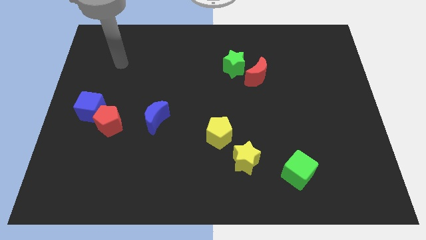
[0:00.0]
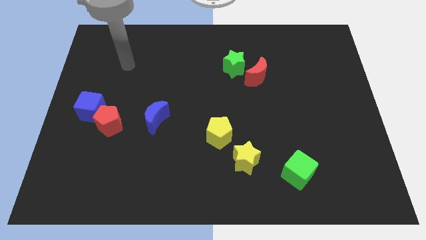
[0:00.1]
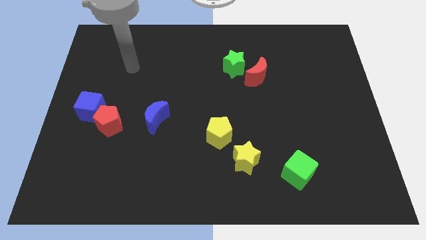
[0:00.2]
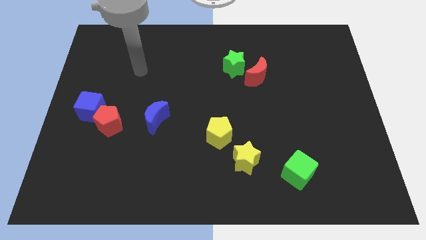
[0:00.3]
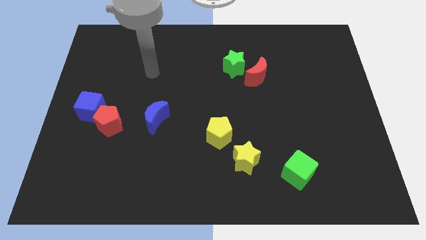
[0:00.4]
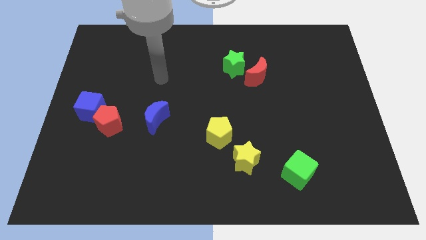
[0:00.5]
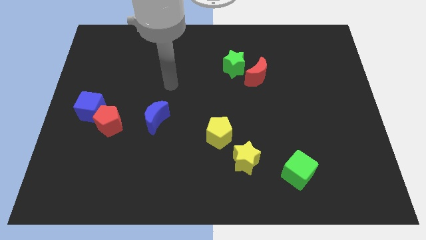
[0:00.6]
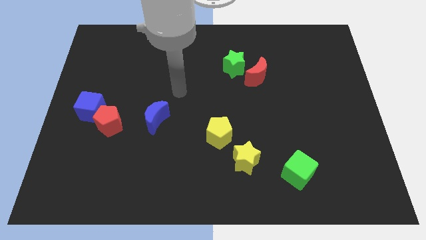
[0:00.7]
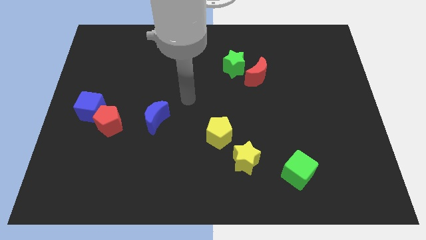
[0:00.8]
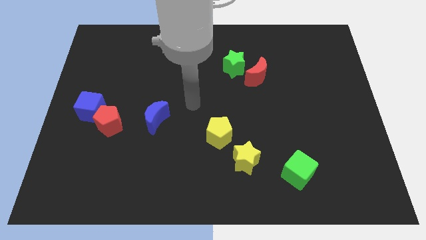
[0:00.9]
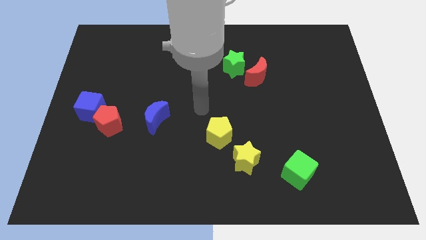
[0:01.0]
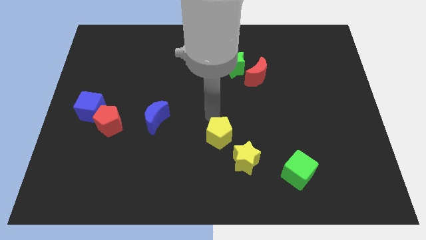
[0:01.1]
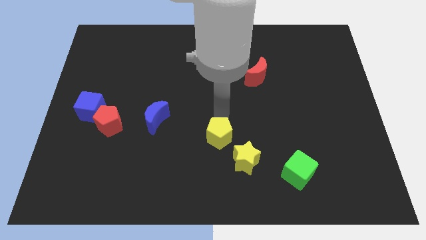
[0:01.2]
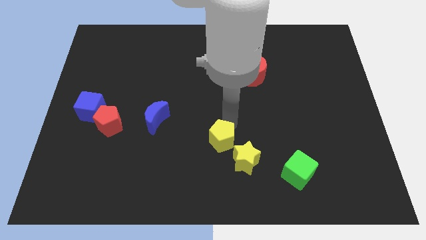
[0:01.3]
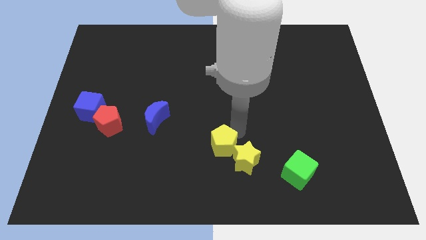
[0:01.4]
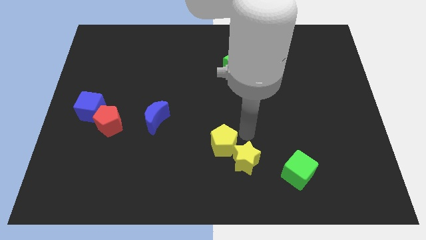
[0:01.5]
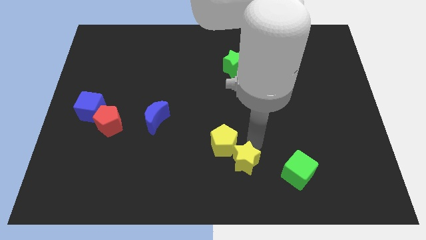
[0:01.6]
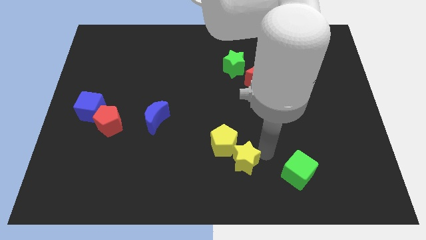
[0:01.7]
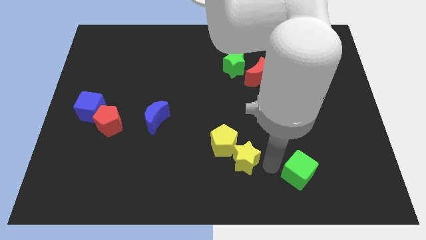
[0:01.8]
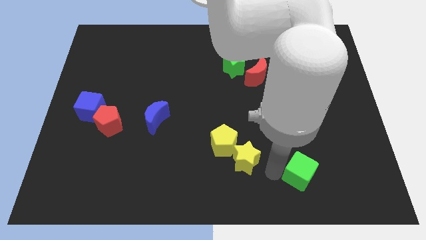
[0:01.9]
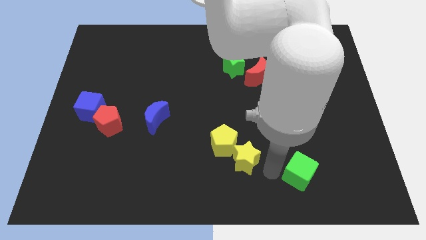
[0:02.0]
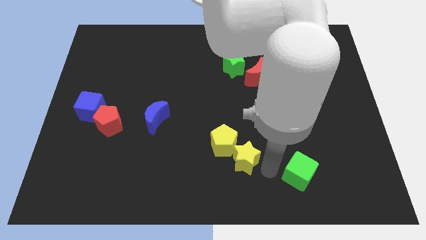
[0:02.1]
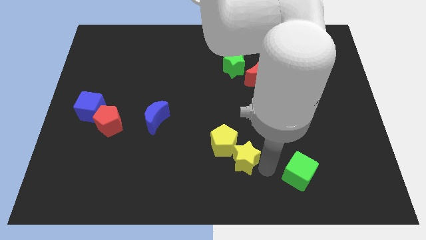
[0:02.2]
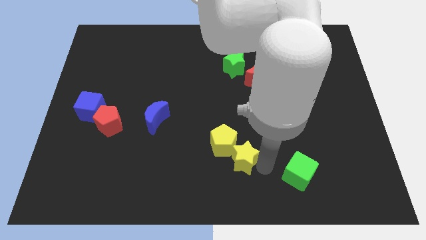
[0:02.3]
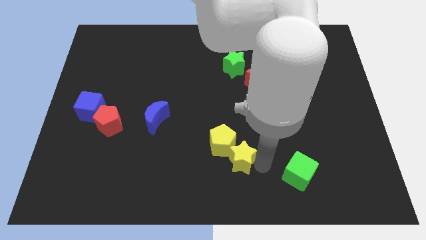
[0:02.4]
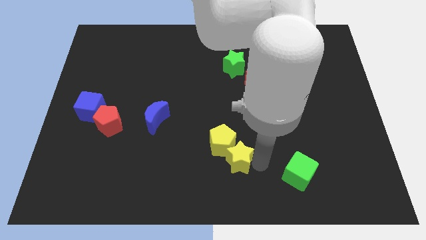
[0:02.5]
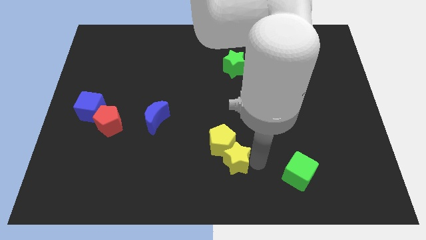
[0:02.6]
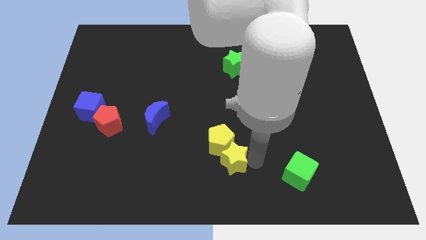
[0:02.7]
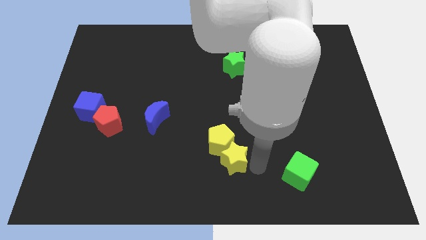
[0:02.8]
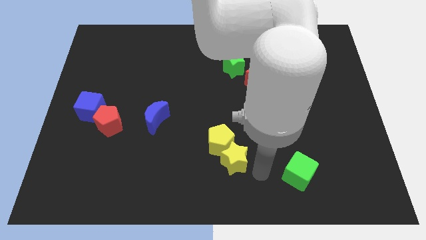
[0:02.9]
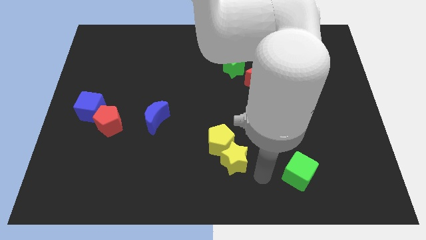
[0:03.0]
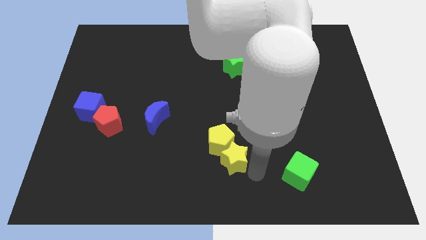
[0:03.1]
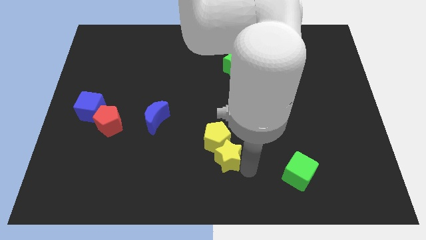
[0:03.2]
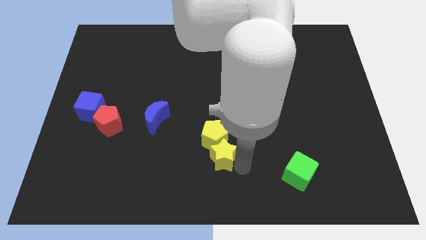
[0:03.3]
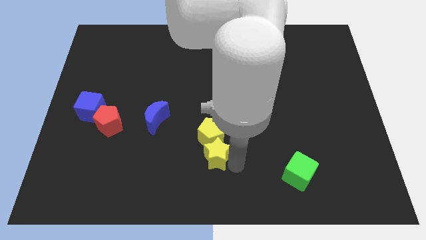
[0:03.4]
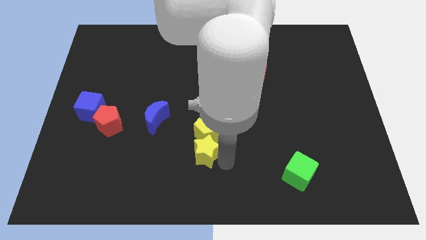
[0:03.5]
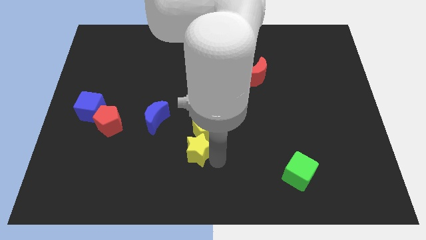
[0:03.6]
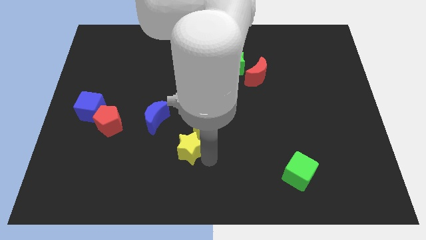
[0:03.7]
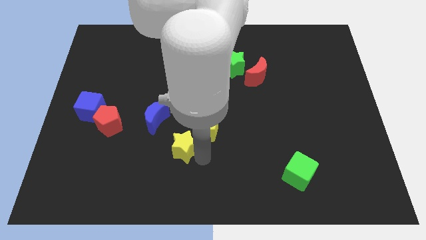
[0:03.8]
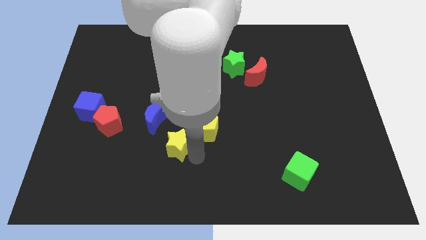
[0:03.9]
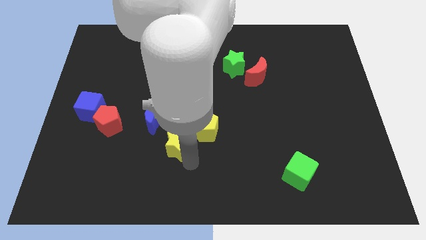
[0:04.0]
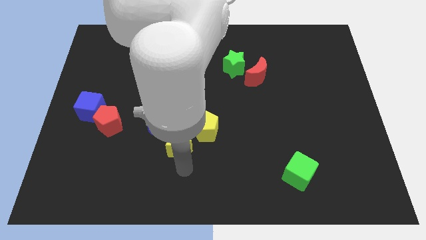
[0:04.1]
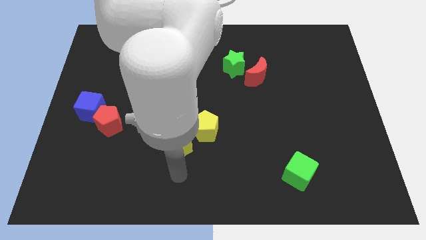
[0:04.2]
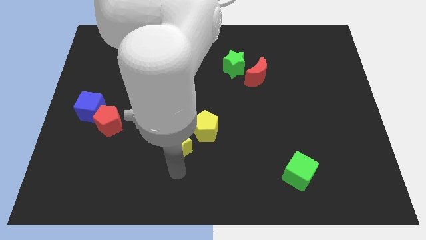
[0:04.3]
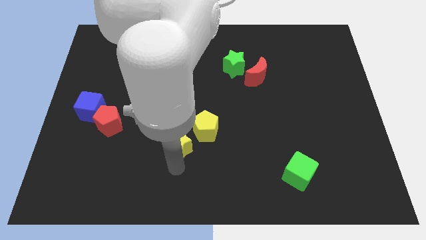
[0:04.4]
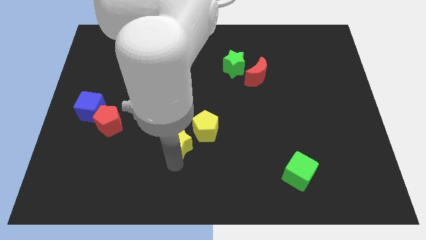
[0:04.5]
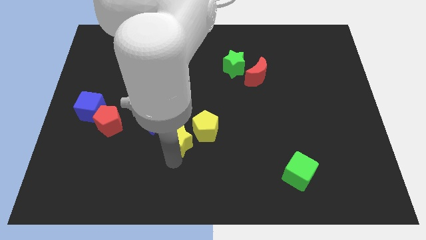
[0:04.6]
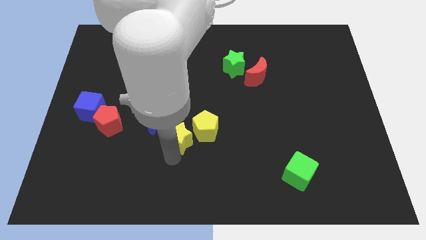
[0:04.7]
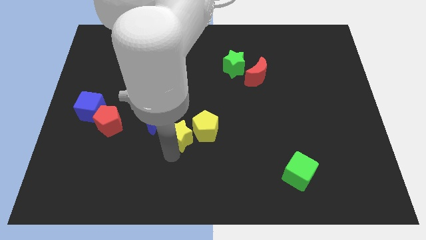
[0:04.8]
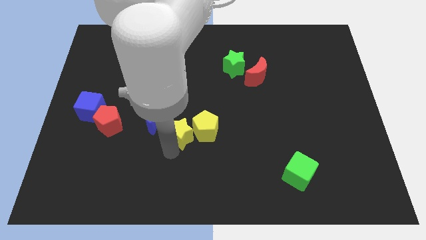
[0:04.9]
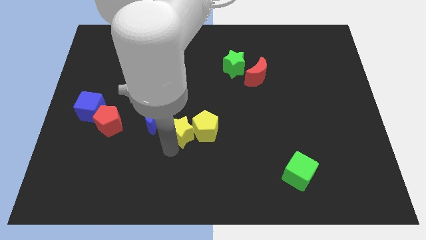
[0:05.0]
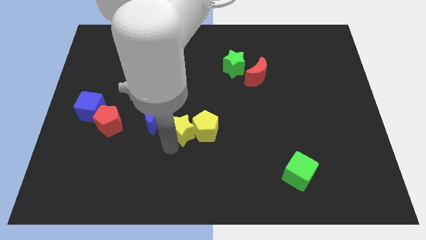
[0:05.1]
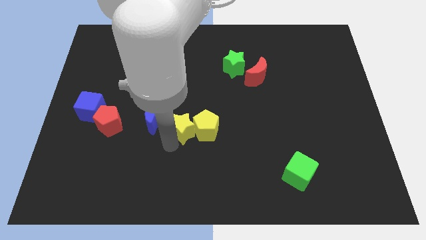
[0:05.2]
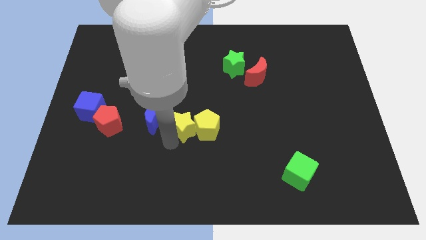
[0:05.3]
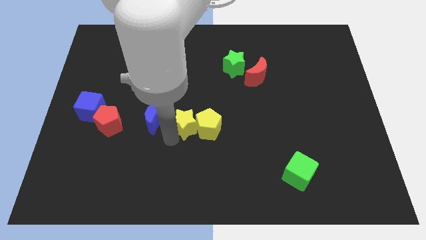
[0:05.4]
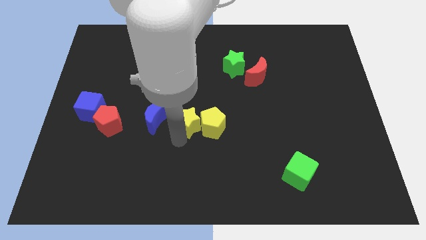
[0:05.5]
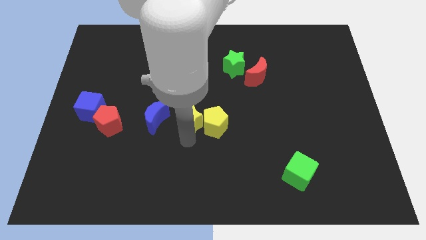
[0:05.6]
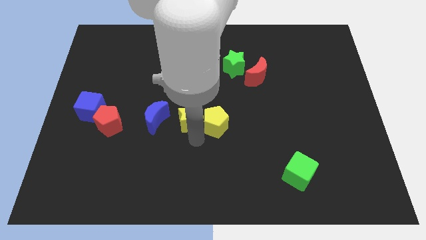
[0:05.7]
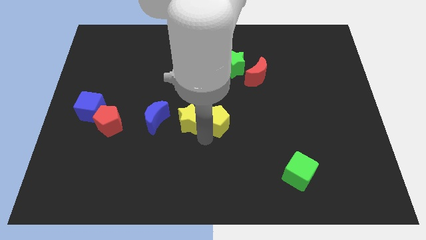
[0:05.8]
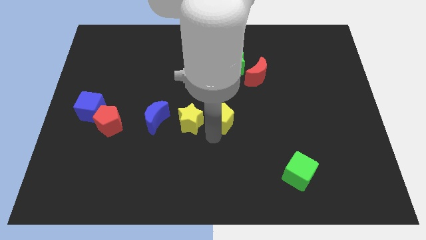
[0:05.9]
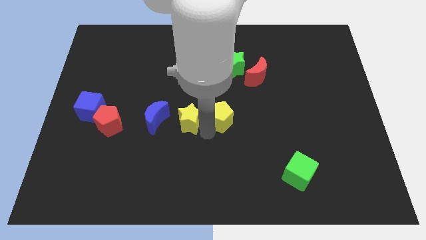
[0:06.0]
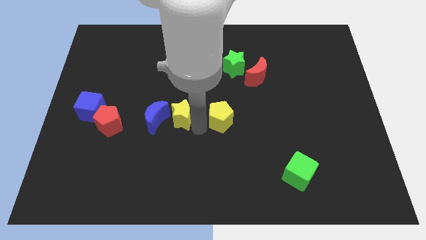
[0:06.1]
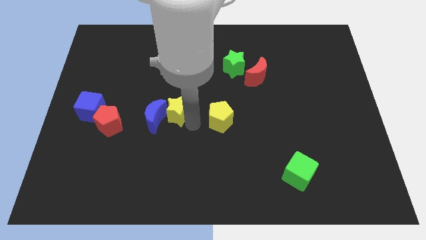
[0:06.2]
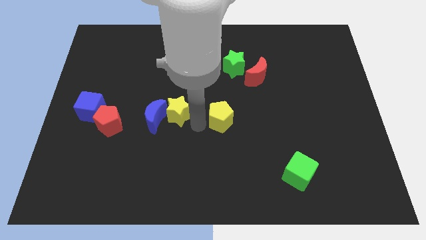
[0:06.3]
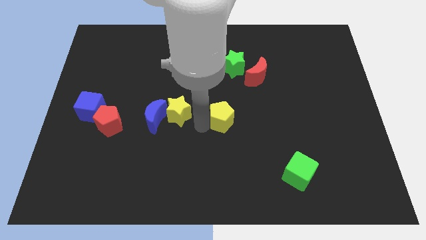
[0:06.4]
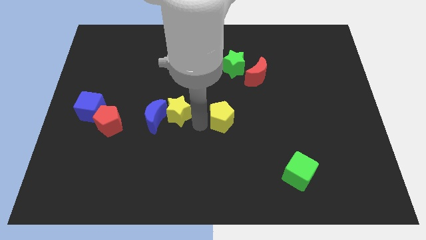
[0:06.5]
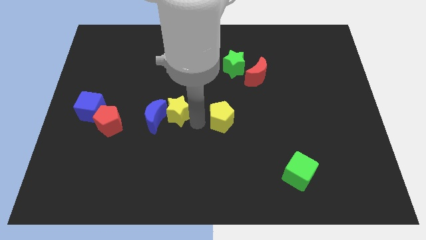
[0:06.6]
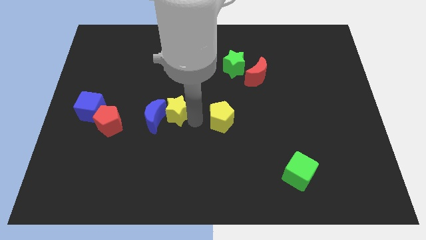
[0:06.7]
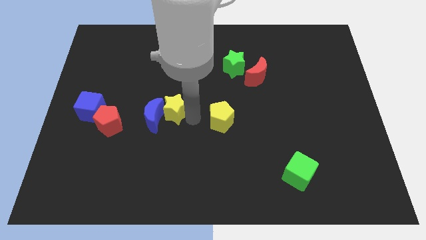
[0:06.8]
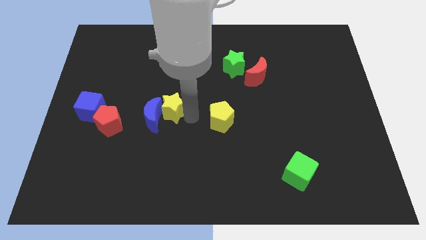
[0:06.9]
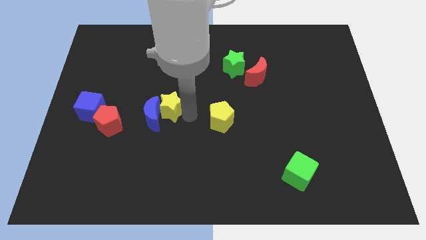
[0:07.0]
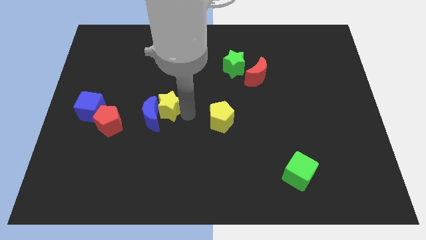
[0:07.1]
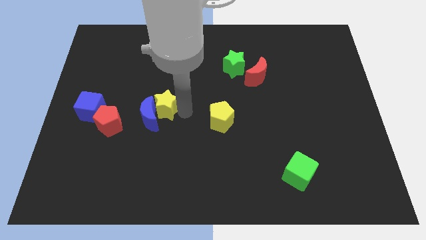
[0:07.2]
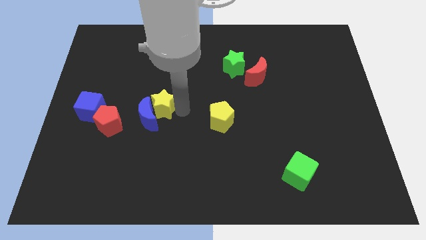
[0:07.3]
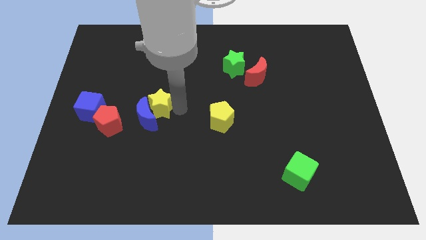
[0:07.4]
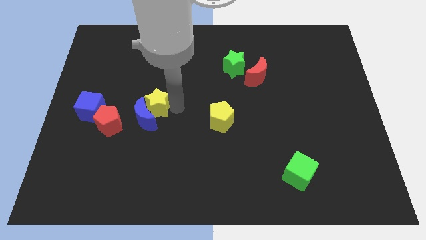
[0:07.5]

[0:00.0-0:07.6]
slide the yellow star to the top right of the red pentagon

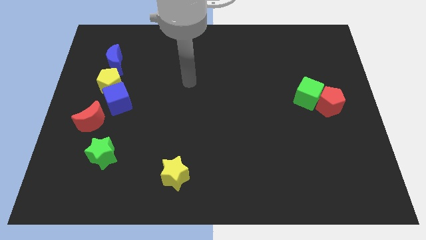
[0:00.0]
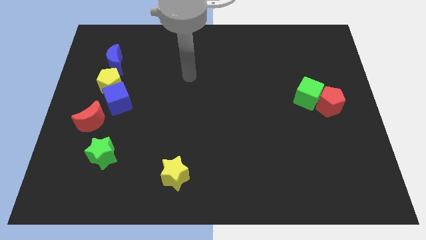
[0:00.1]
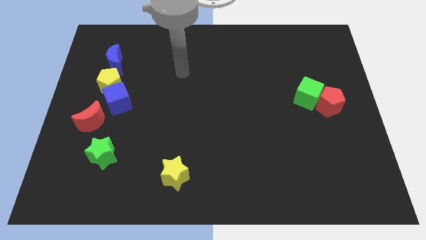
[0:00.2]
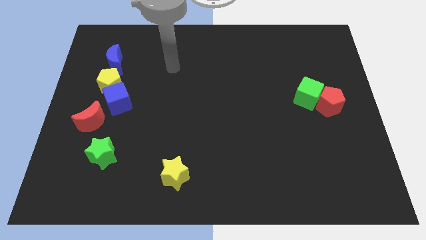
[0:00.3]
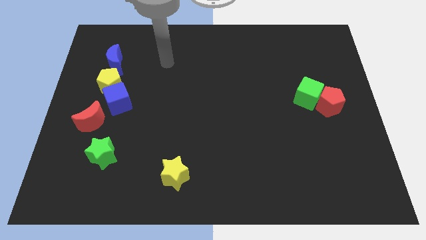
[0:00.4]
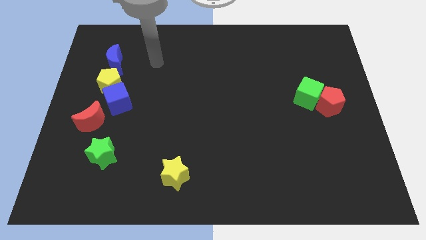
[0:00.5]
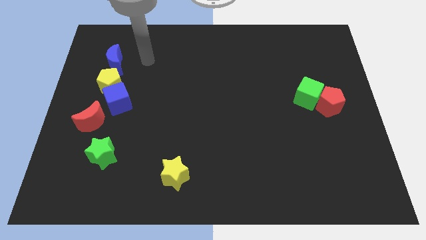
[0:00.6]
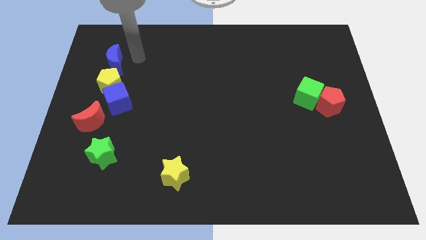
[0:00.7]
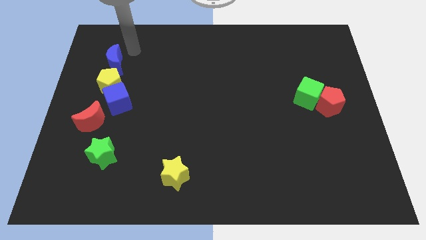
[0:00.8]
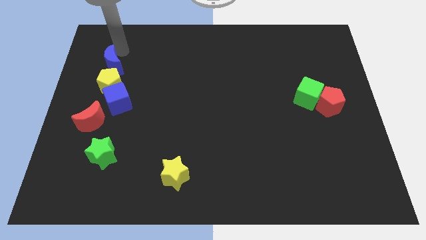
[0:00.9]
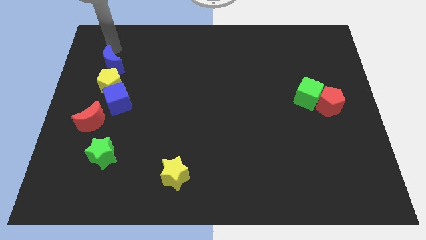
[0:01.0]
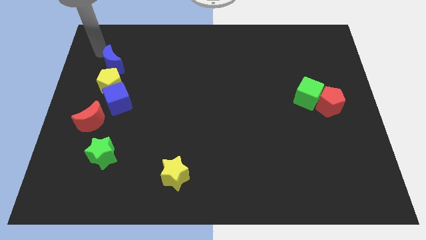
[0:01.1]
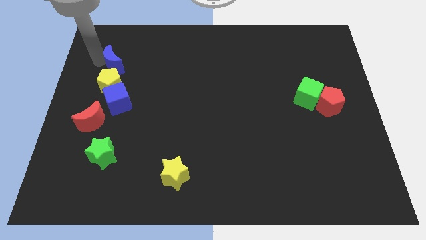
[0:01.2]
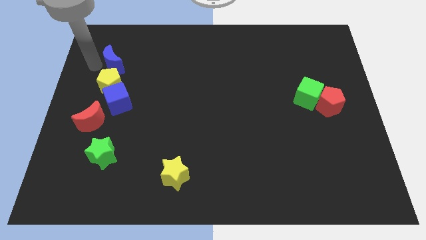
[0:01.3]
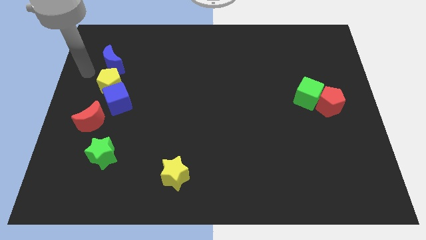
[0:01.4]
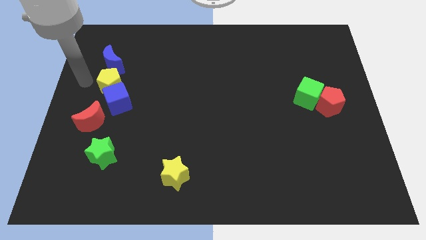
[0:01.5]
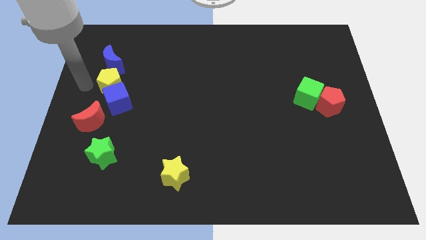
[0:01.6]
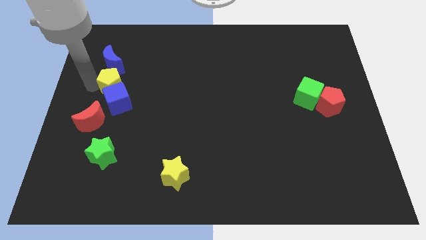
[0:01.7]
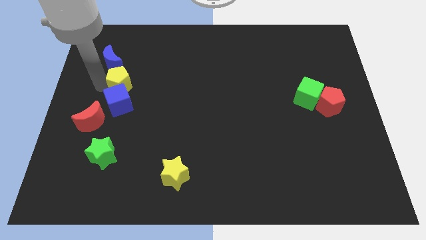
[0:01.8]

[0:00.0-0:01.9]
slide the yellow pentagon to the top right side of the blue cube
